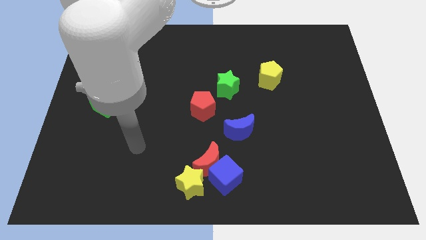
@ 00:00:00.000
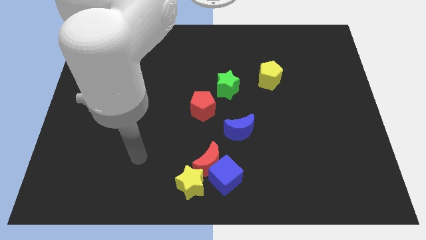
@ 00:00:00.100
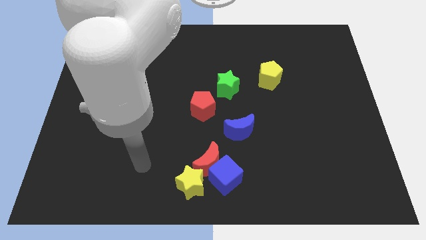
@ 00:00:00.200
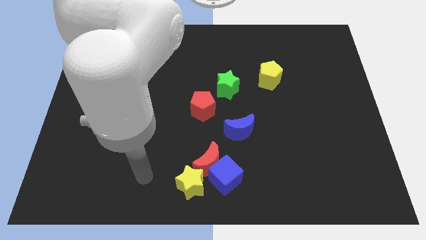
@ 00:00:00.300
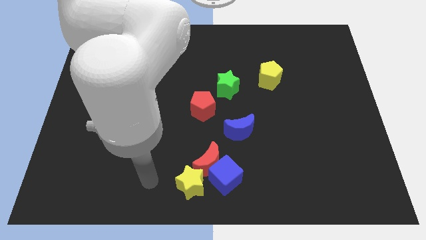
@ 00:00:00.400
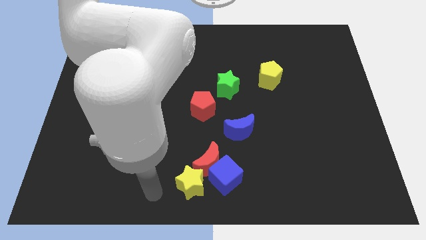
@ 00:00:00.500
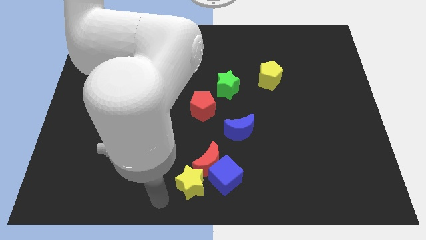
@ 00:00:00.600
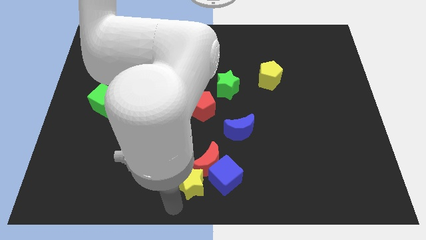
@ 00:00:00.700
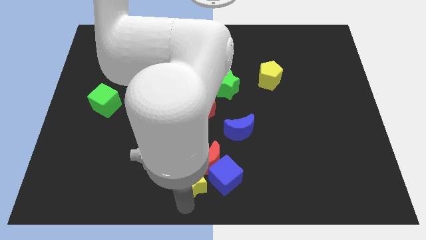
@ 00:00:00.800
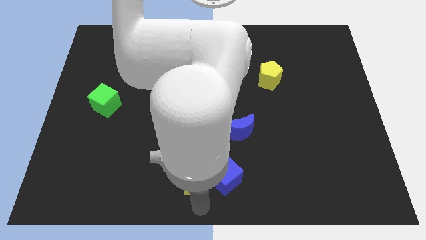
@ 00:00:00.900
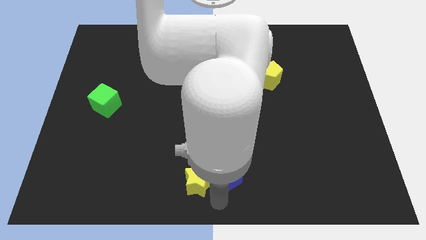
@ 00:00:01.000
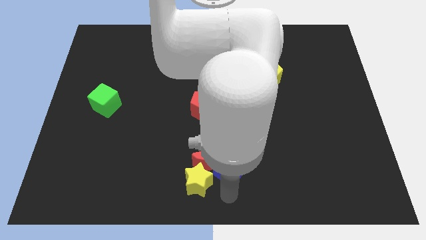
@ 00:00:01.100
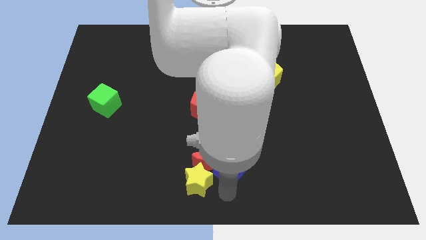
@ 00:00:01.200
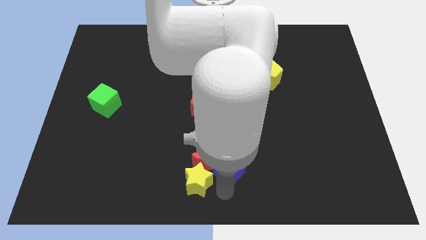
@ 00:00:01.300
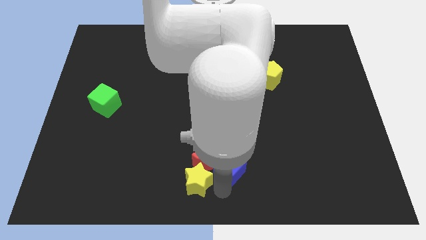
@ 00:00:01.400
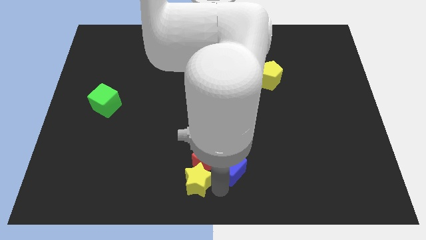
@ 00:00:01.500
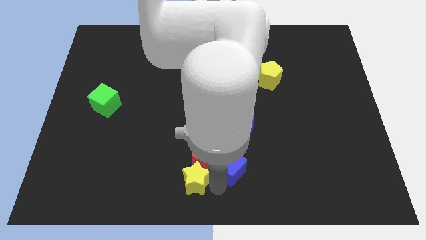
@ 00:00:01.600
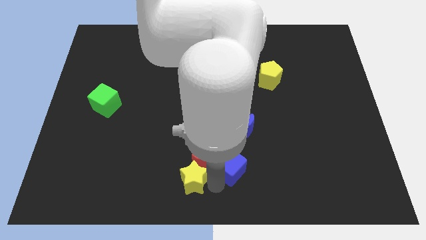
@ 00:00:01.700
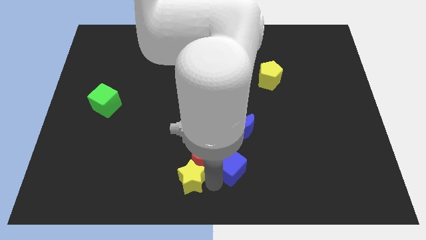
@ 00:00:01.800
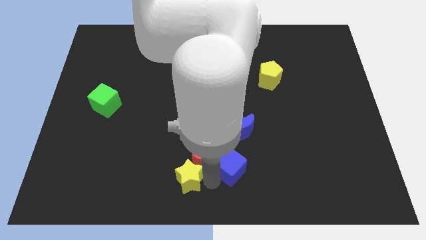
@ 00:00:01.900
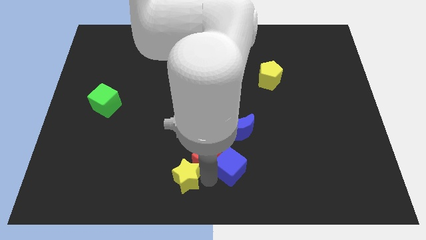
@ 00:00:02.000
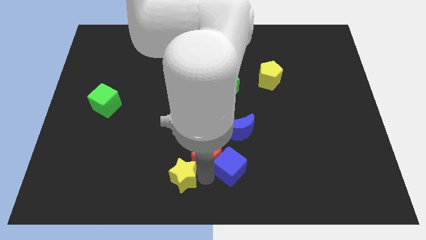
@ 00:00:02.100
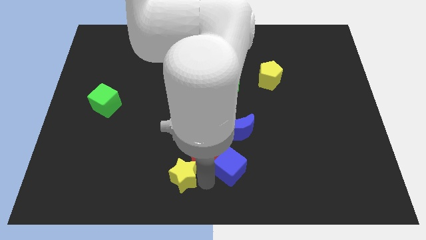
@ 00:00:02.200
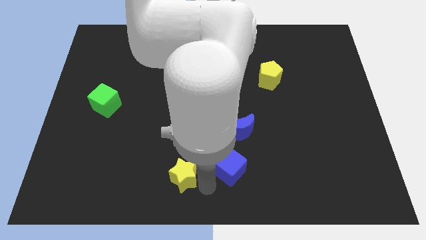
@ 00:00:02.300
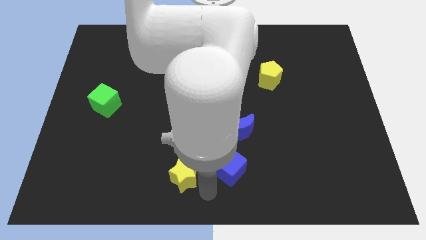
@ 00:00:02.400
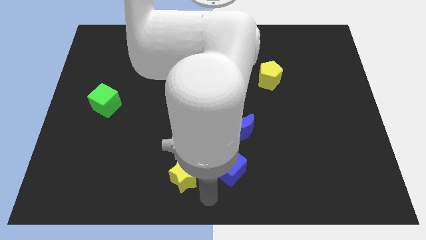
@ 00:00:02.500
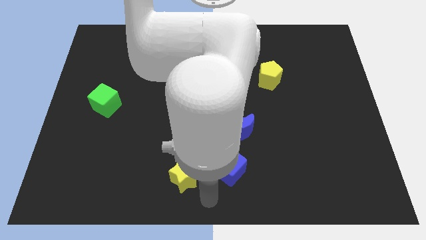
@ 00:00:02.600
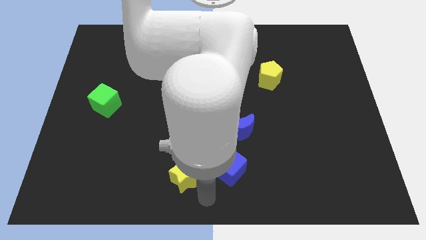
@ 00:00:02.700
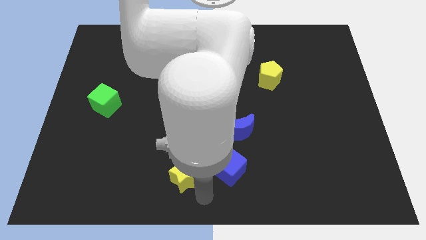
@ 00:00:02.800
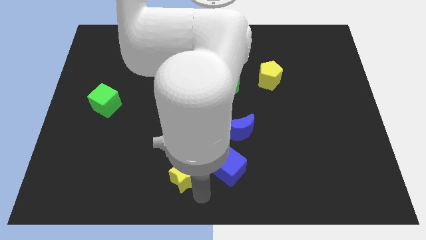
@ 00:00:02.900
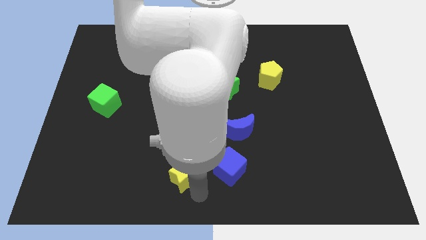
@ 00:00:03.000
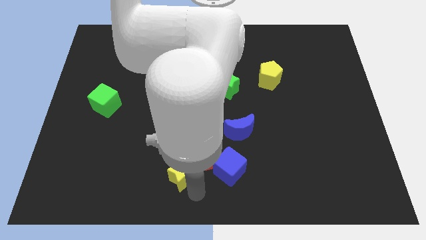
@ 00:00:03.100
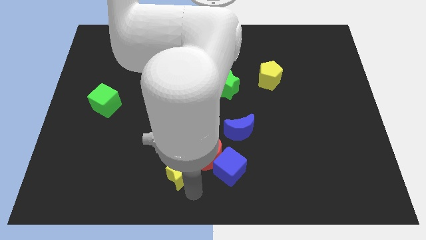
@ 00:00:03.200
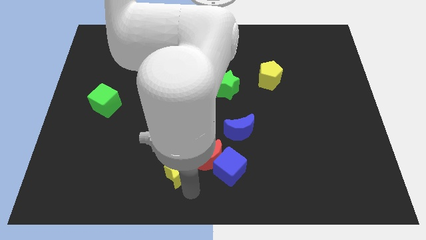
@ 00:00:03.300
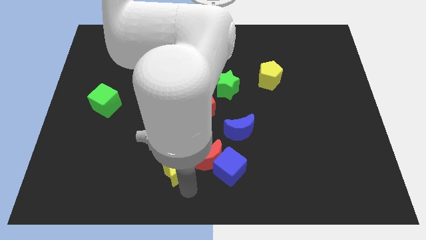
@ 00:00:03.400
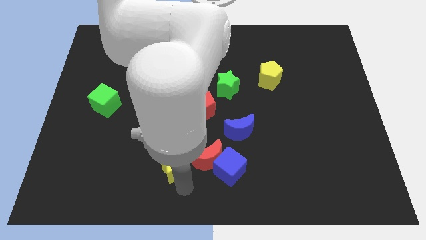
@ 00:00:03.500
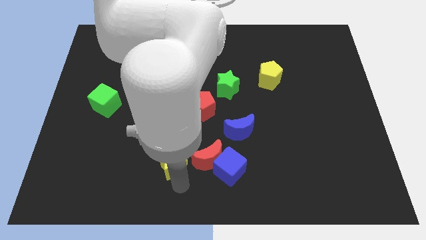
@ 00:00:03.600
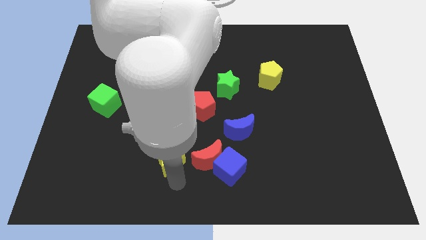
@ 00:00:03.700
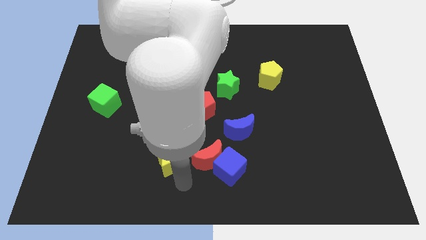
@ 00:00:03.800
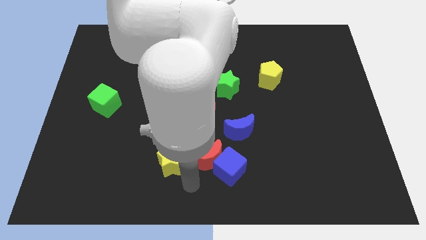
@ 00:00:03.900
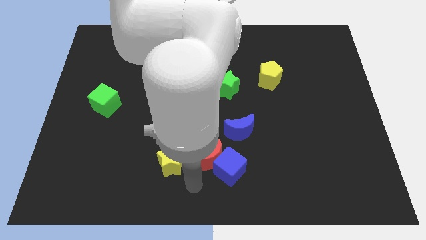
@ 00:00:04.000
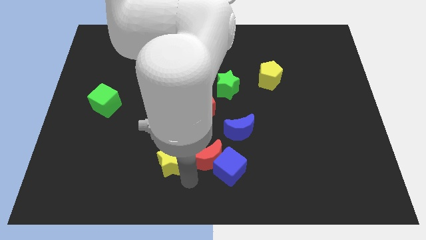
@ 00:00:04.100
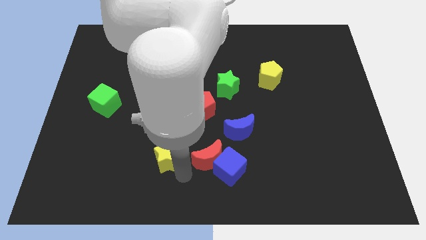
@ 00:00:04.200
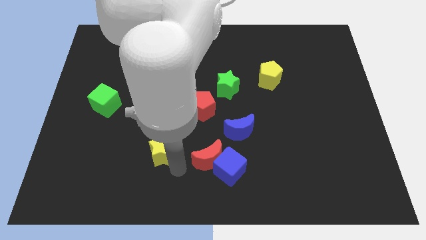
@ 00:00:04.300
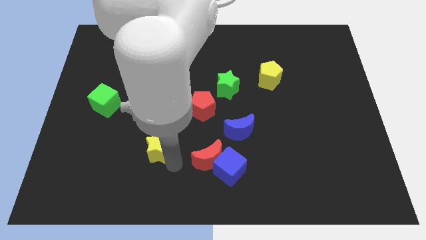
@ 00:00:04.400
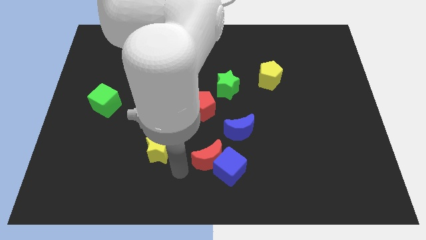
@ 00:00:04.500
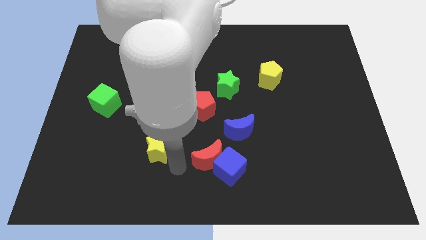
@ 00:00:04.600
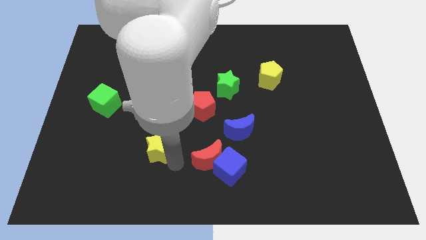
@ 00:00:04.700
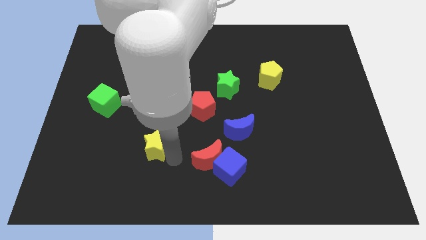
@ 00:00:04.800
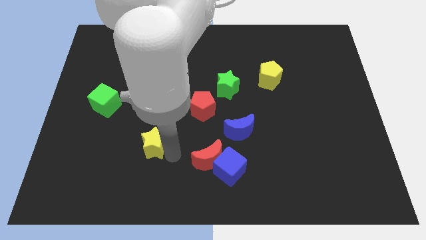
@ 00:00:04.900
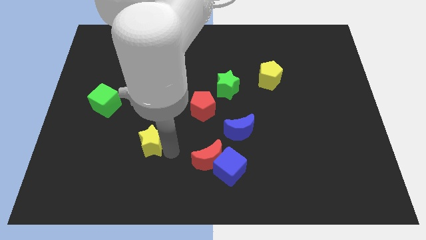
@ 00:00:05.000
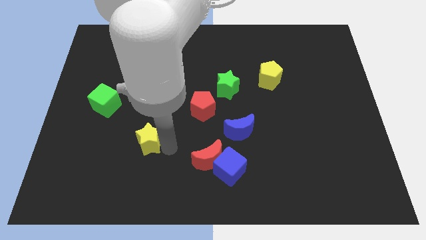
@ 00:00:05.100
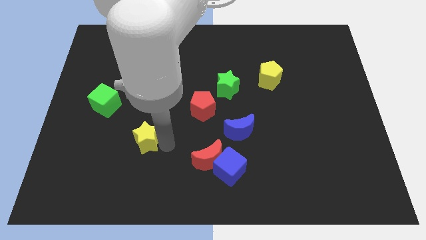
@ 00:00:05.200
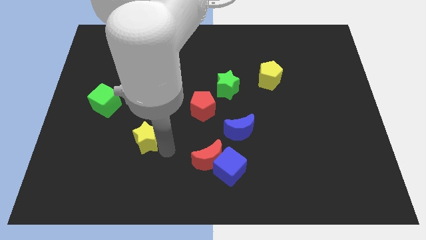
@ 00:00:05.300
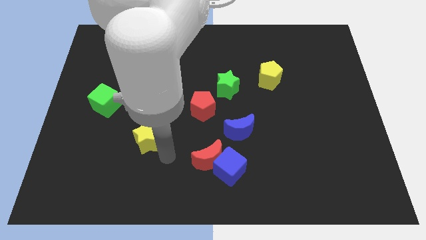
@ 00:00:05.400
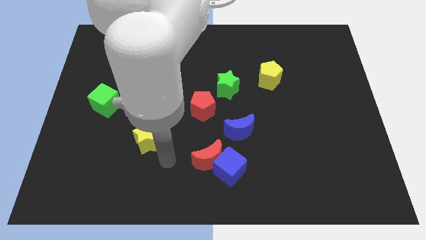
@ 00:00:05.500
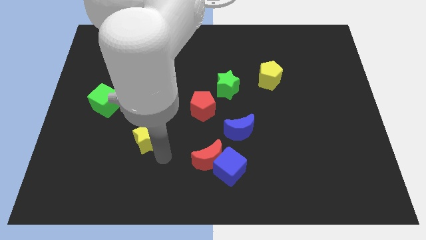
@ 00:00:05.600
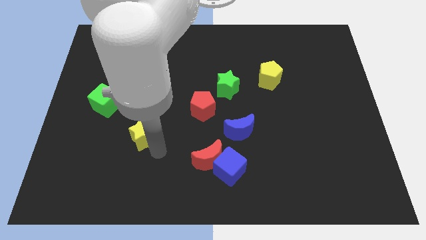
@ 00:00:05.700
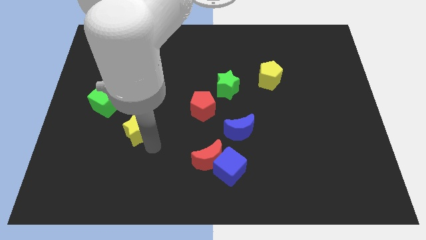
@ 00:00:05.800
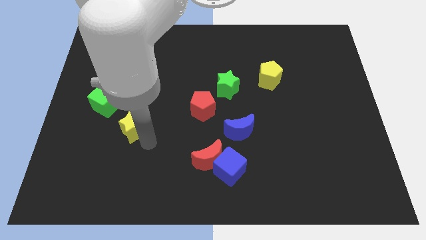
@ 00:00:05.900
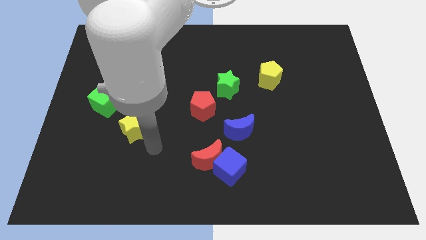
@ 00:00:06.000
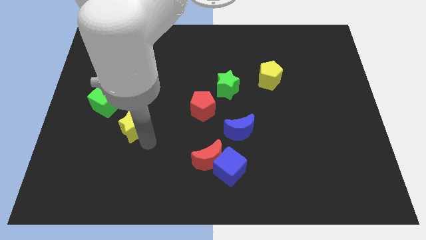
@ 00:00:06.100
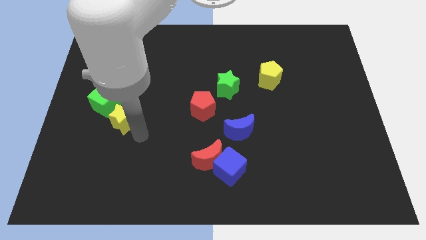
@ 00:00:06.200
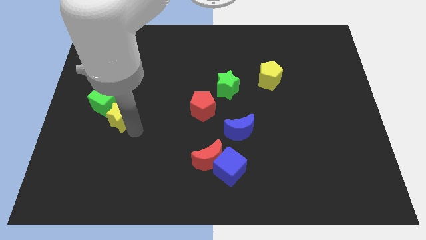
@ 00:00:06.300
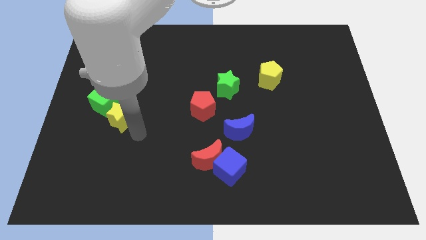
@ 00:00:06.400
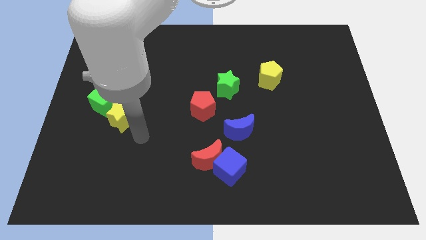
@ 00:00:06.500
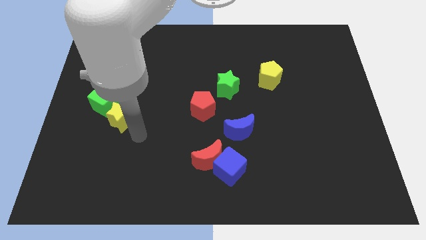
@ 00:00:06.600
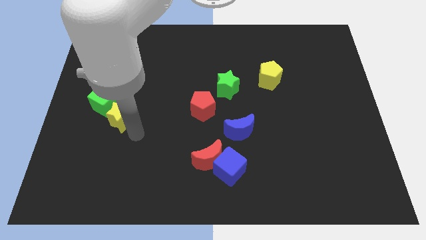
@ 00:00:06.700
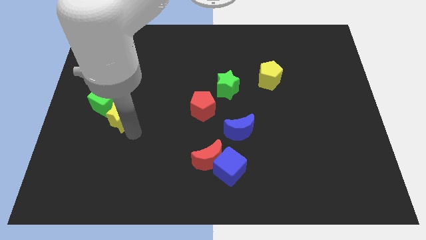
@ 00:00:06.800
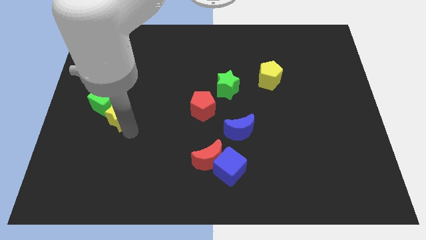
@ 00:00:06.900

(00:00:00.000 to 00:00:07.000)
push the yellow star next to the green cube

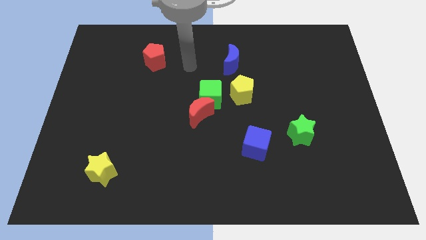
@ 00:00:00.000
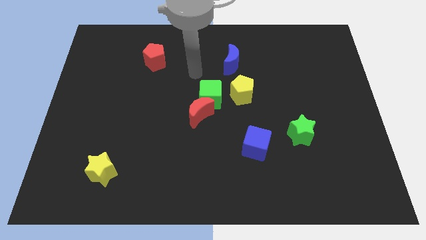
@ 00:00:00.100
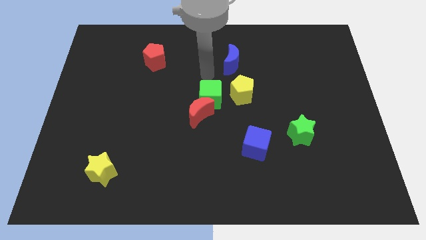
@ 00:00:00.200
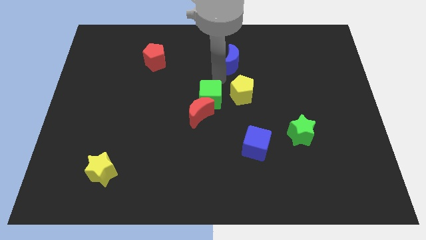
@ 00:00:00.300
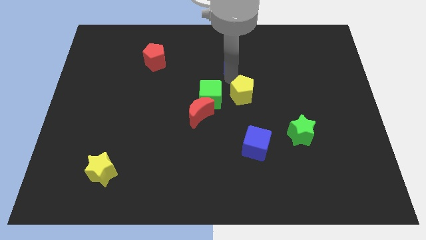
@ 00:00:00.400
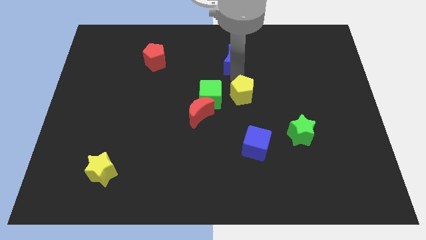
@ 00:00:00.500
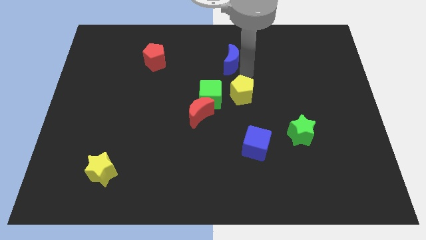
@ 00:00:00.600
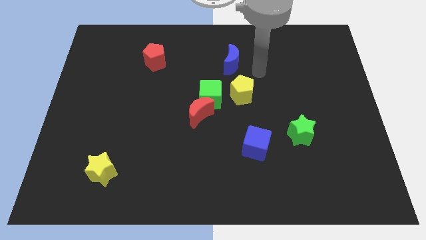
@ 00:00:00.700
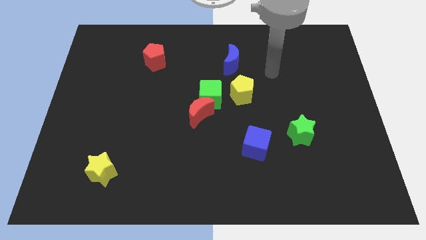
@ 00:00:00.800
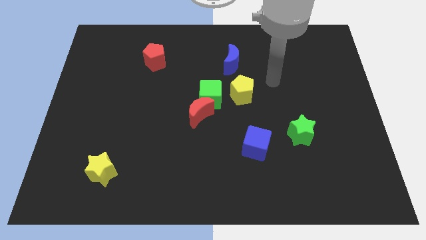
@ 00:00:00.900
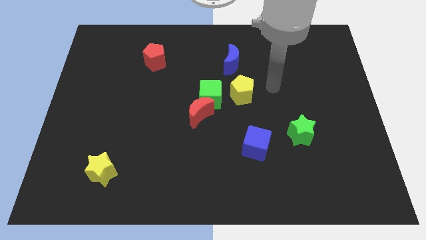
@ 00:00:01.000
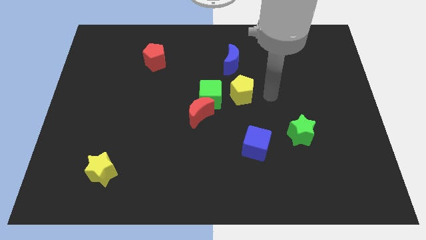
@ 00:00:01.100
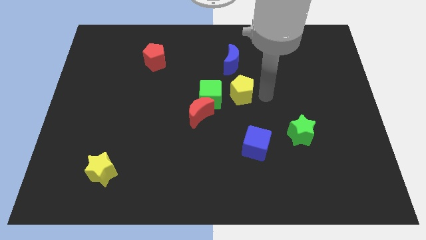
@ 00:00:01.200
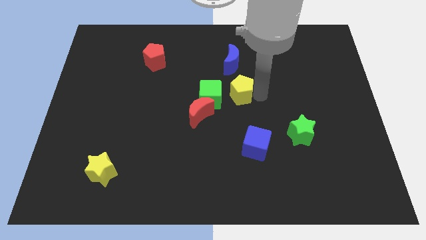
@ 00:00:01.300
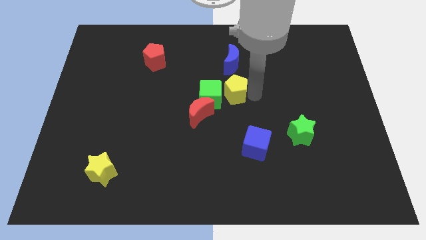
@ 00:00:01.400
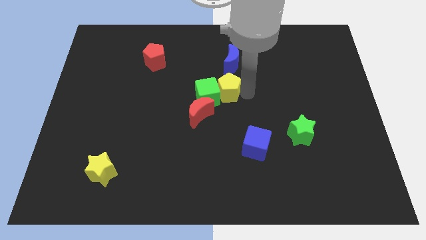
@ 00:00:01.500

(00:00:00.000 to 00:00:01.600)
move the yellow pentagon next to the green cube
